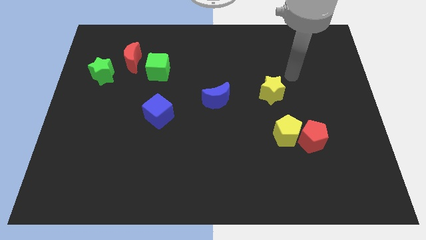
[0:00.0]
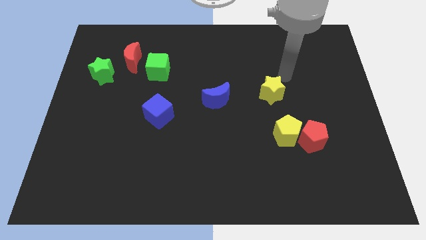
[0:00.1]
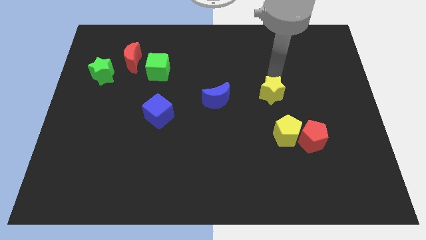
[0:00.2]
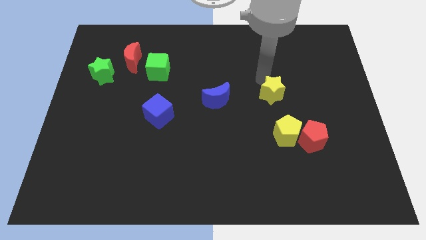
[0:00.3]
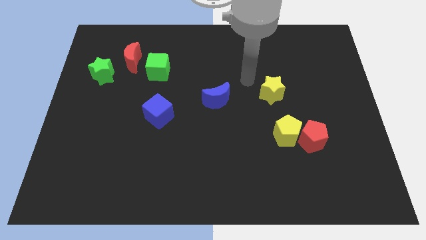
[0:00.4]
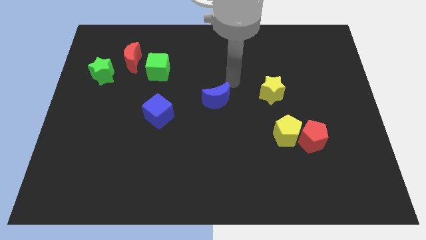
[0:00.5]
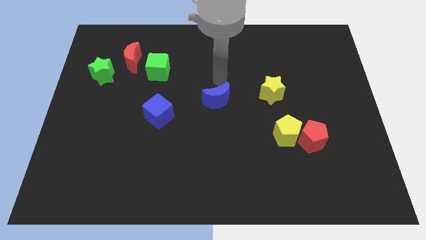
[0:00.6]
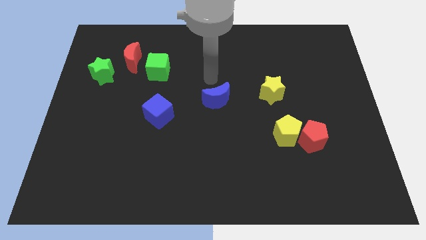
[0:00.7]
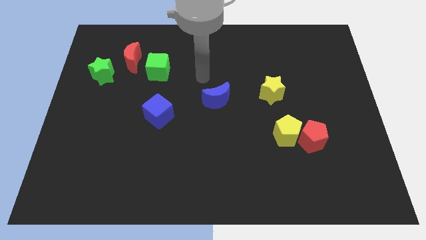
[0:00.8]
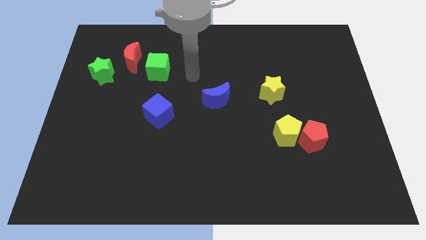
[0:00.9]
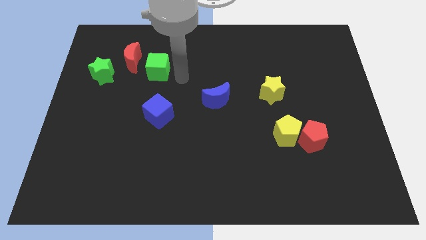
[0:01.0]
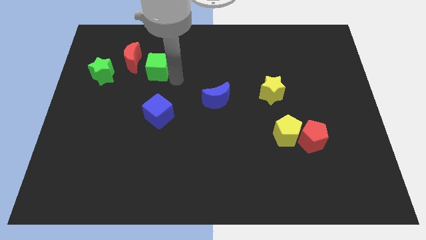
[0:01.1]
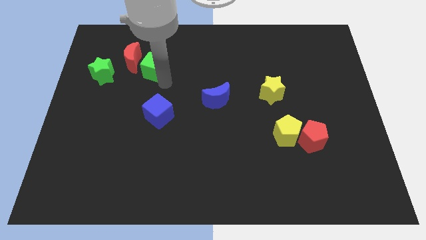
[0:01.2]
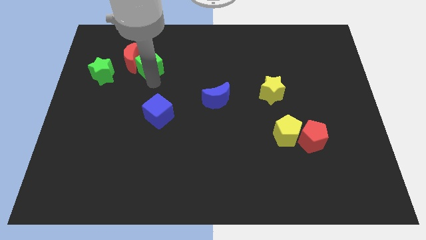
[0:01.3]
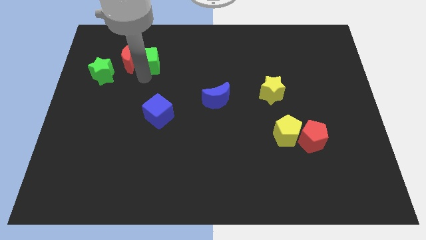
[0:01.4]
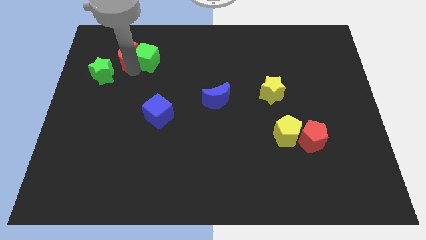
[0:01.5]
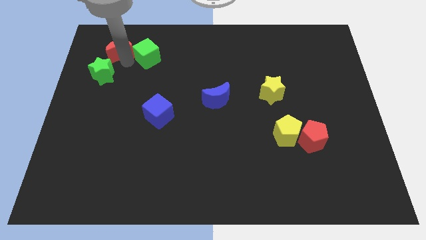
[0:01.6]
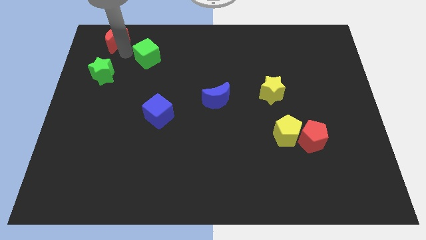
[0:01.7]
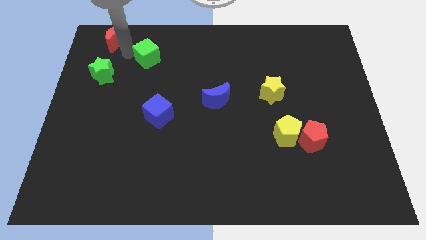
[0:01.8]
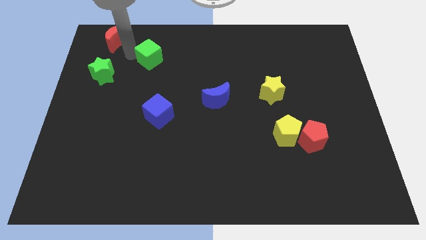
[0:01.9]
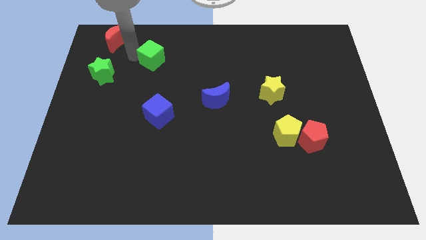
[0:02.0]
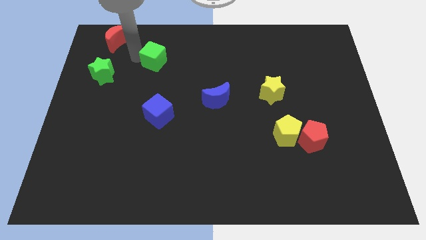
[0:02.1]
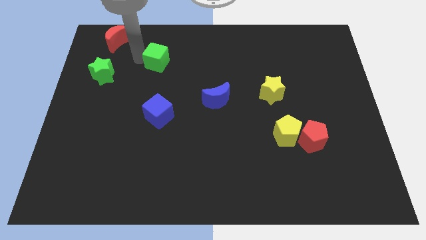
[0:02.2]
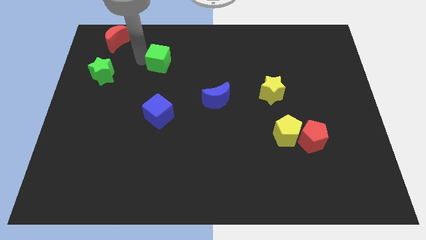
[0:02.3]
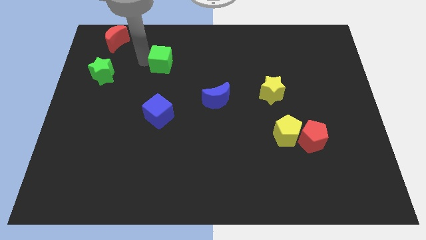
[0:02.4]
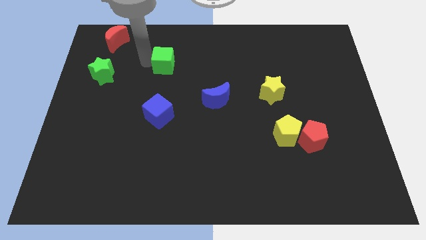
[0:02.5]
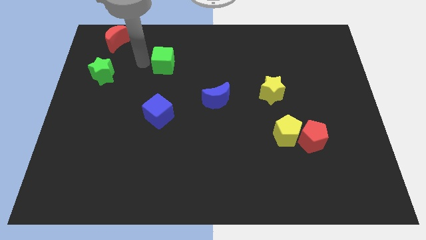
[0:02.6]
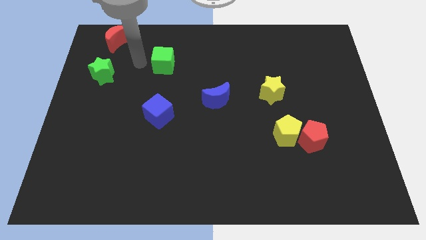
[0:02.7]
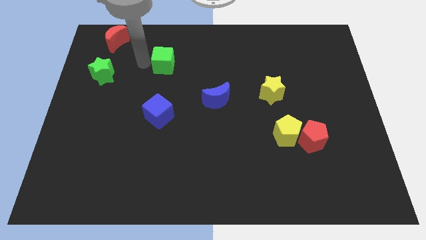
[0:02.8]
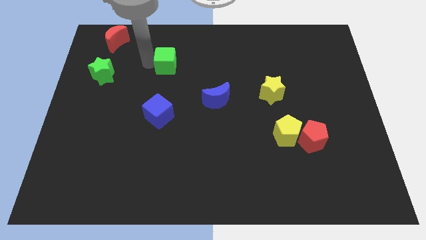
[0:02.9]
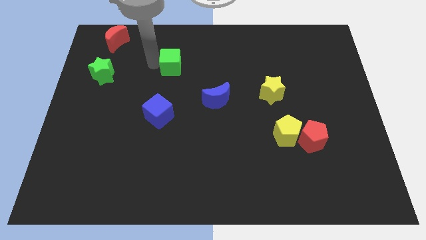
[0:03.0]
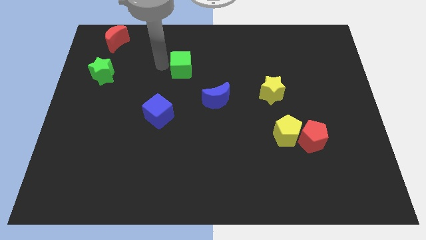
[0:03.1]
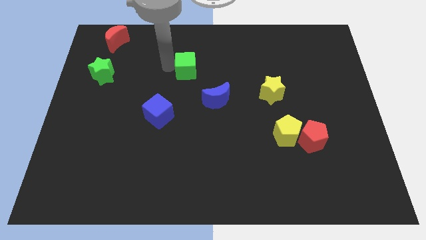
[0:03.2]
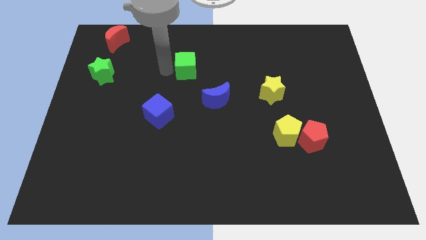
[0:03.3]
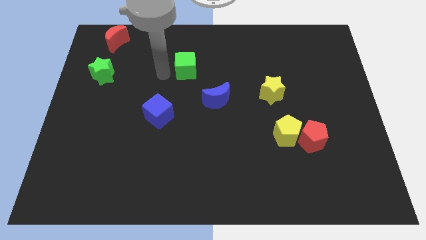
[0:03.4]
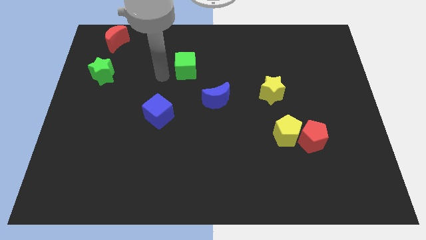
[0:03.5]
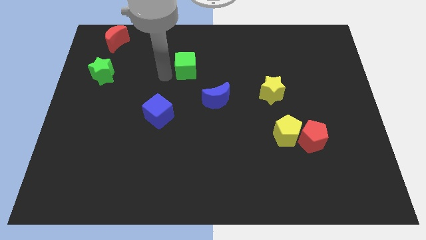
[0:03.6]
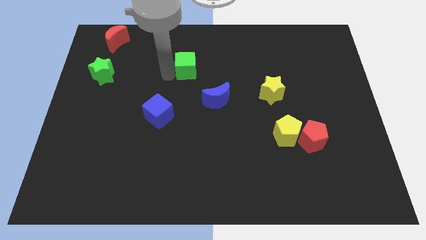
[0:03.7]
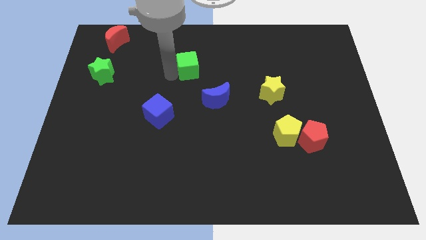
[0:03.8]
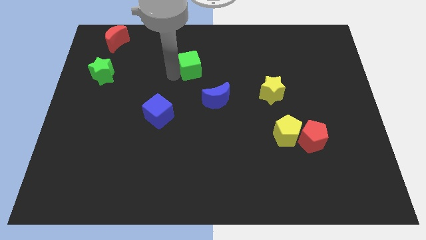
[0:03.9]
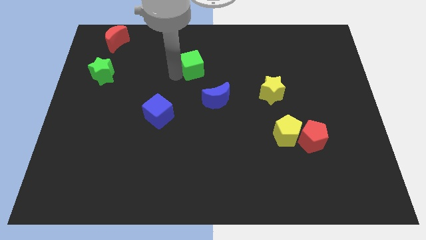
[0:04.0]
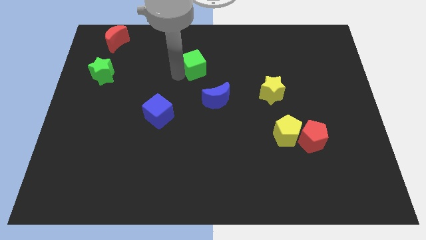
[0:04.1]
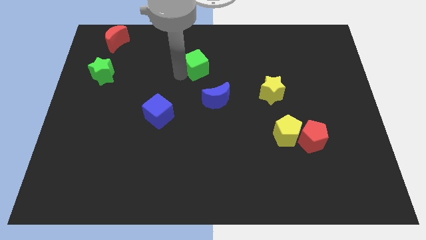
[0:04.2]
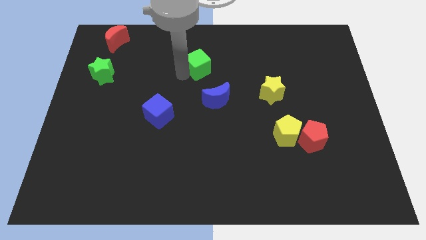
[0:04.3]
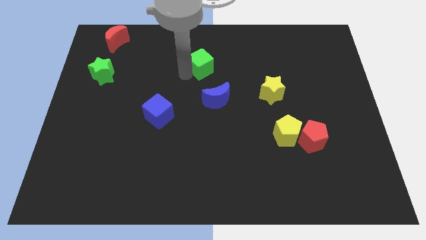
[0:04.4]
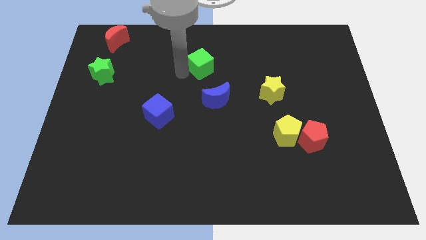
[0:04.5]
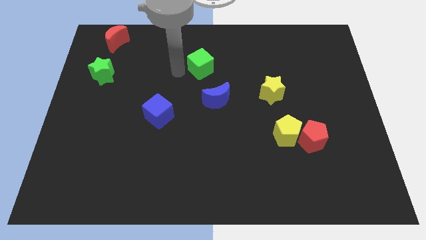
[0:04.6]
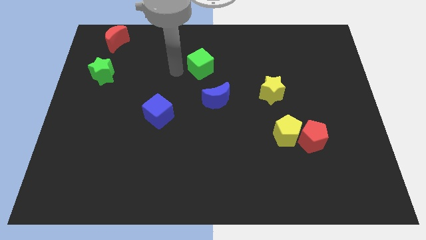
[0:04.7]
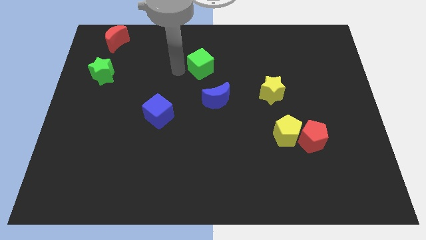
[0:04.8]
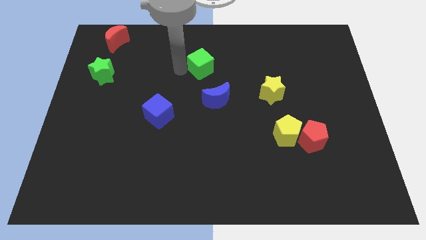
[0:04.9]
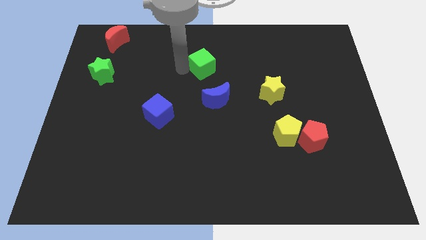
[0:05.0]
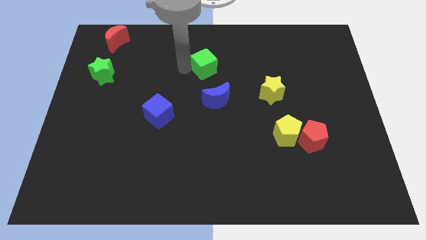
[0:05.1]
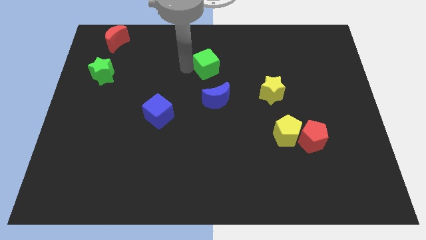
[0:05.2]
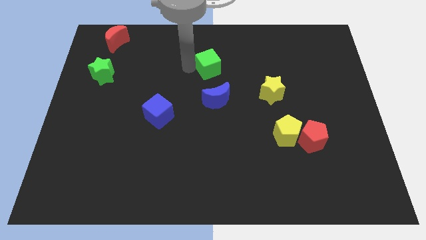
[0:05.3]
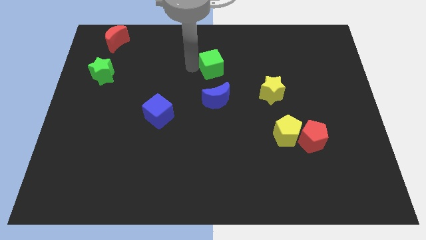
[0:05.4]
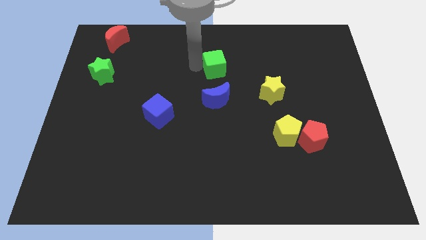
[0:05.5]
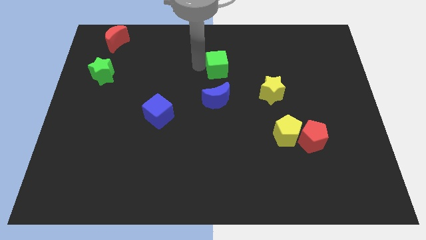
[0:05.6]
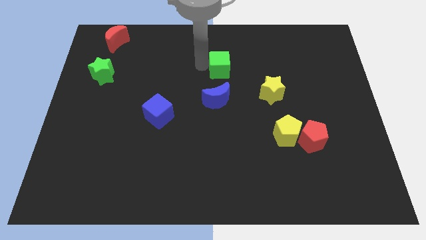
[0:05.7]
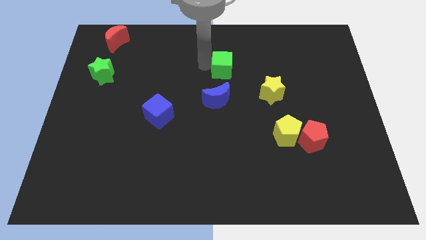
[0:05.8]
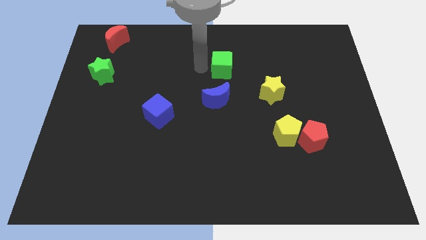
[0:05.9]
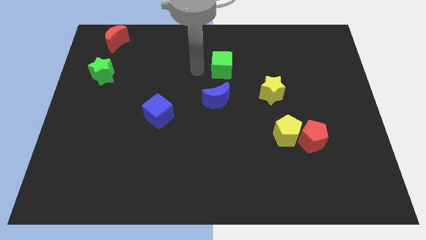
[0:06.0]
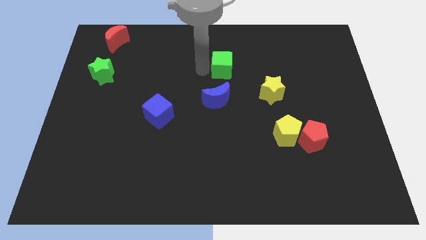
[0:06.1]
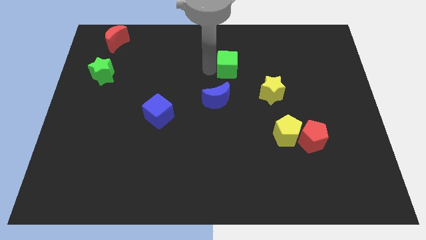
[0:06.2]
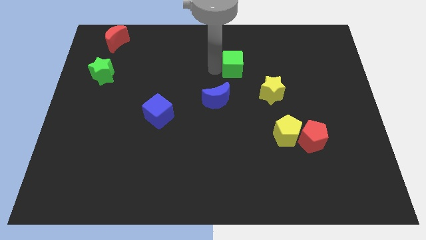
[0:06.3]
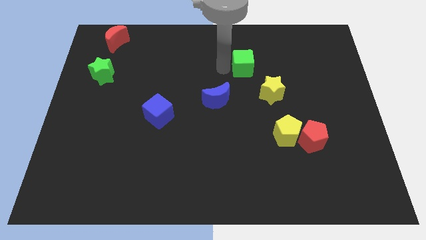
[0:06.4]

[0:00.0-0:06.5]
slide the green cube to the right

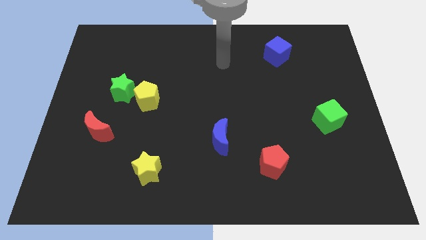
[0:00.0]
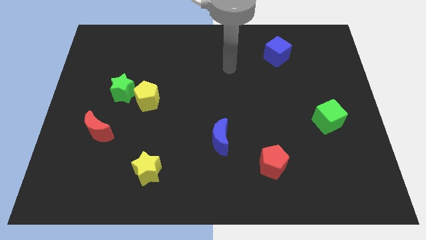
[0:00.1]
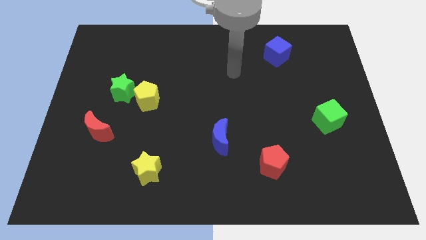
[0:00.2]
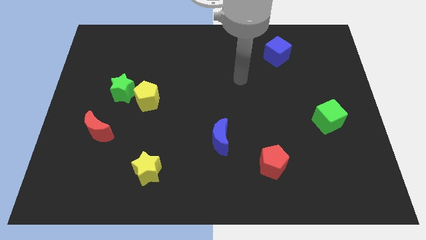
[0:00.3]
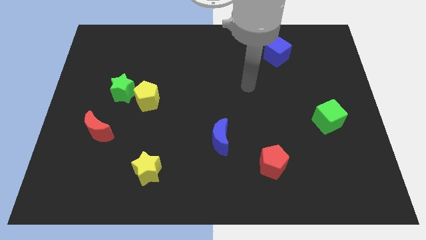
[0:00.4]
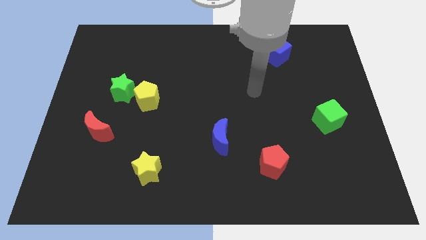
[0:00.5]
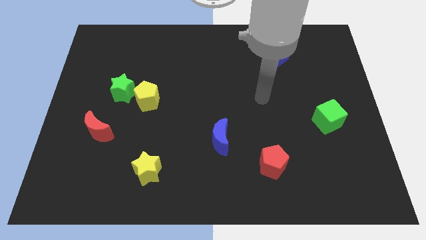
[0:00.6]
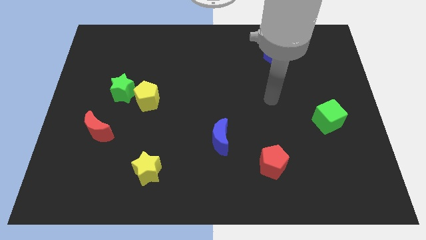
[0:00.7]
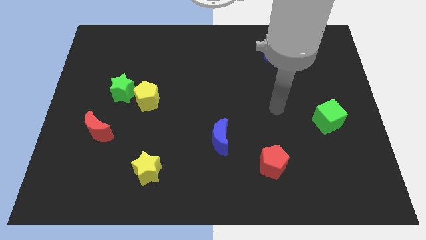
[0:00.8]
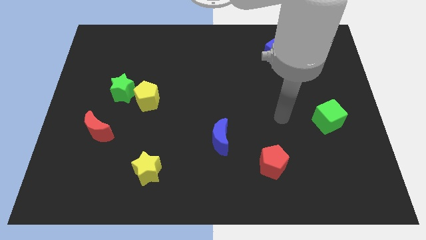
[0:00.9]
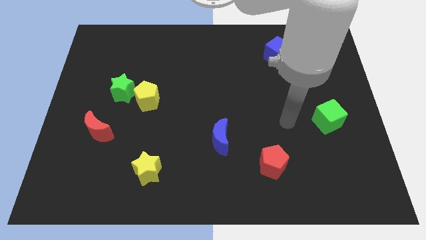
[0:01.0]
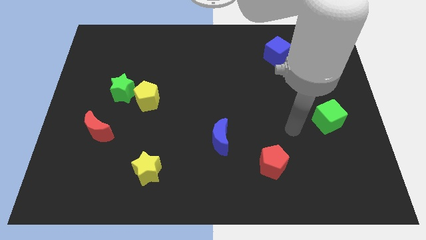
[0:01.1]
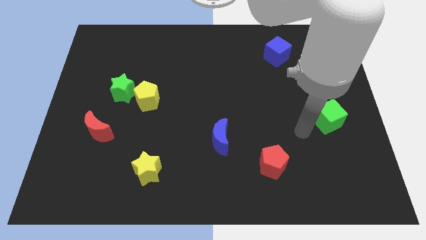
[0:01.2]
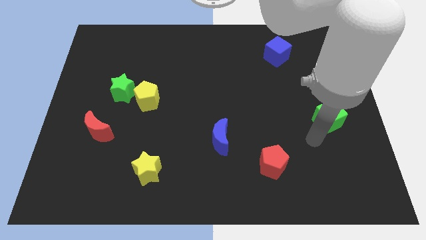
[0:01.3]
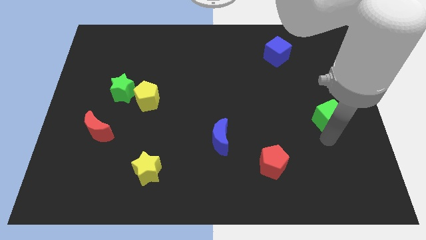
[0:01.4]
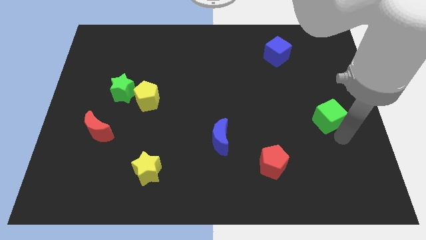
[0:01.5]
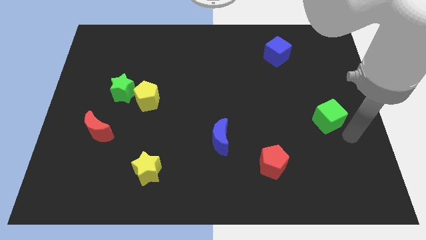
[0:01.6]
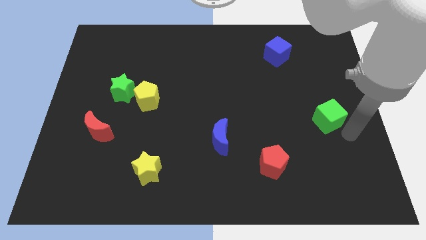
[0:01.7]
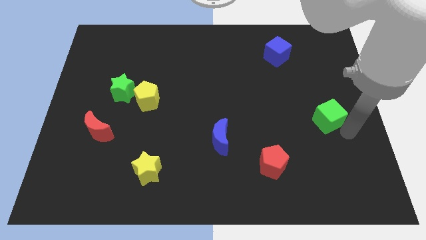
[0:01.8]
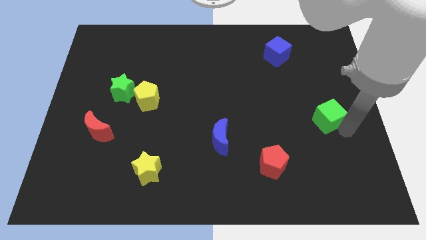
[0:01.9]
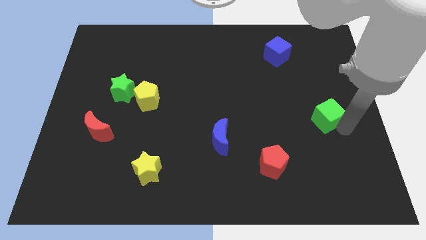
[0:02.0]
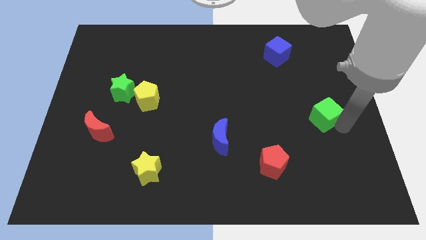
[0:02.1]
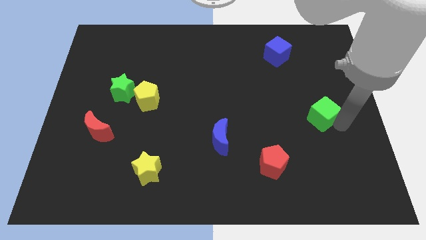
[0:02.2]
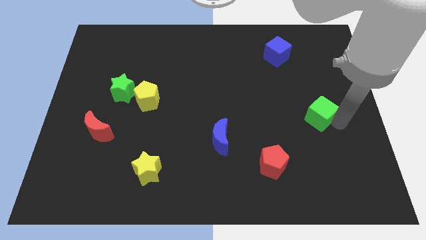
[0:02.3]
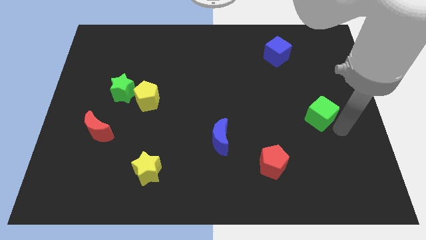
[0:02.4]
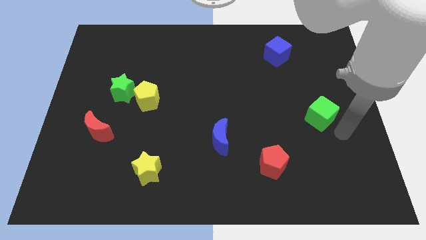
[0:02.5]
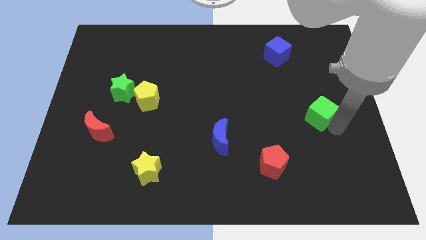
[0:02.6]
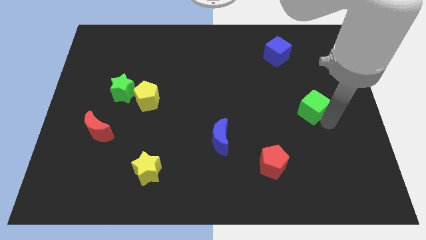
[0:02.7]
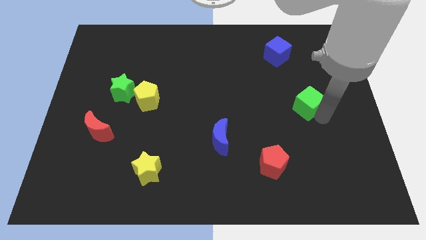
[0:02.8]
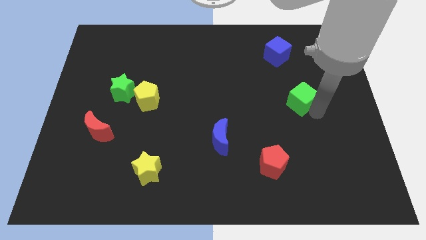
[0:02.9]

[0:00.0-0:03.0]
slide the green cube up and left diagonally somewhat
